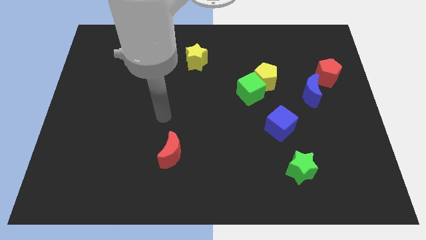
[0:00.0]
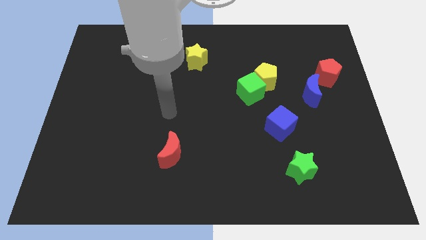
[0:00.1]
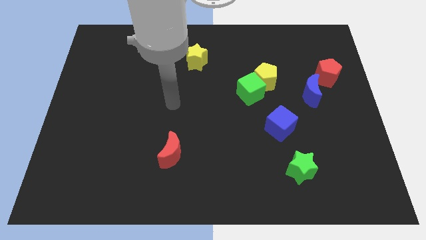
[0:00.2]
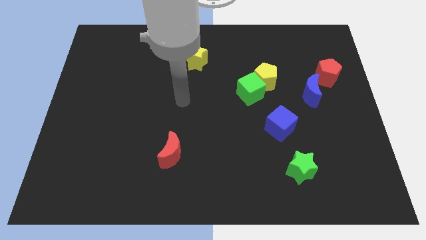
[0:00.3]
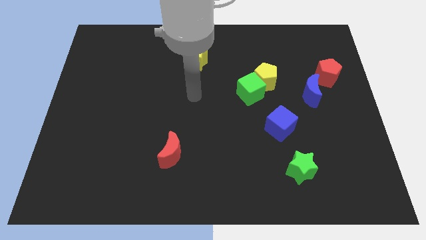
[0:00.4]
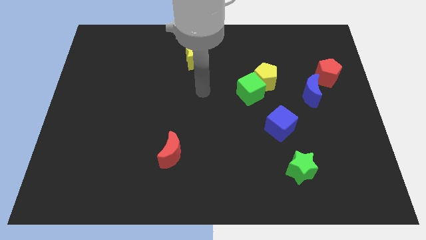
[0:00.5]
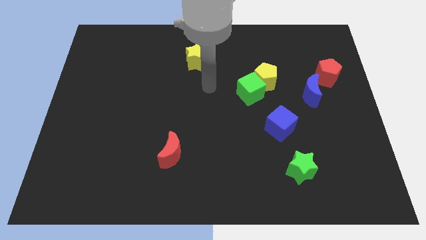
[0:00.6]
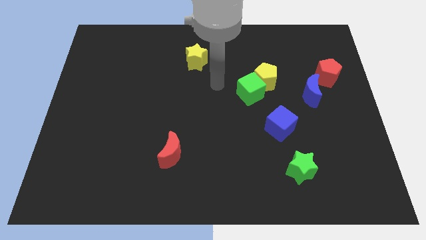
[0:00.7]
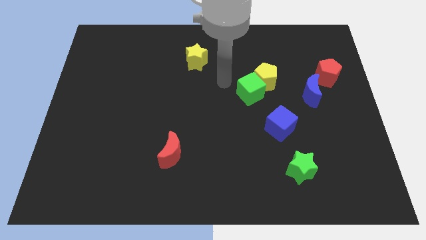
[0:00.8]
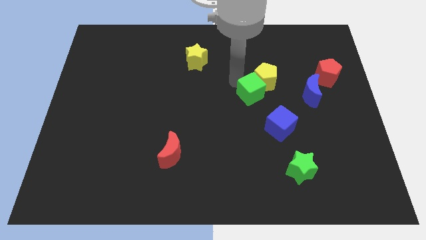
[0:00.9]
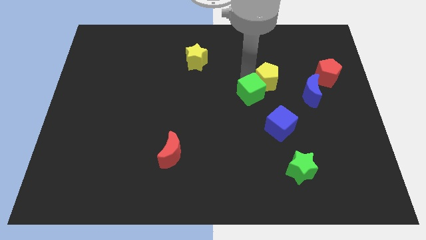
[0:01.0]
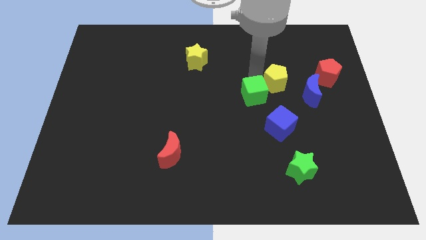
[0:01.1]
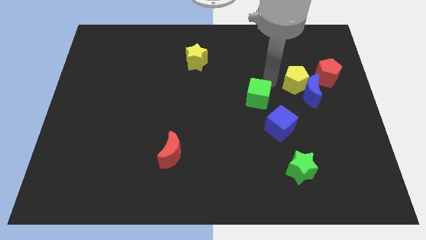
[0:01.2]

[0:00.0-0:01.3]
move the green cube away from the yellow pentagon

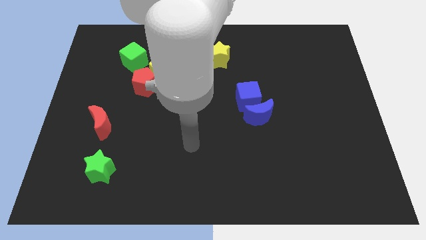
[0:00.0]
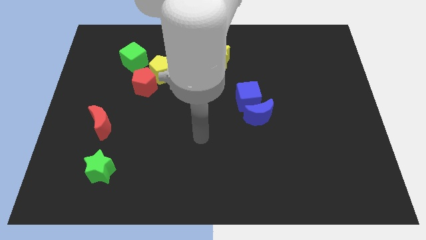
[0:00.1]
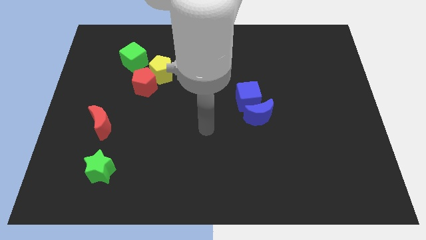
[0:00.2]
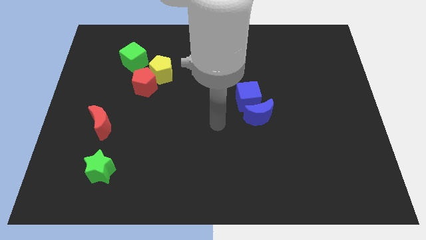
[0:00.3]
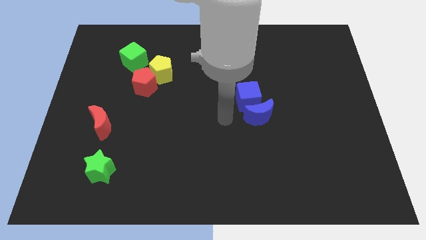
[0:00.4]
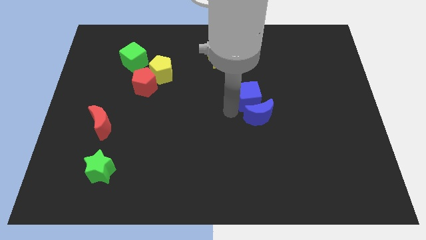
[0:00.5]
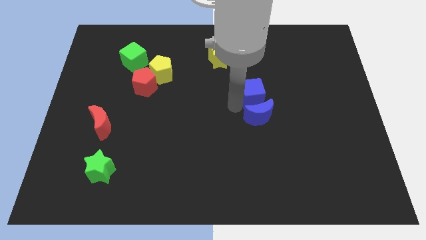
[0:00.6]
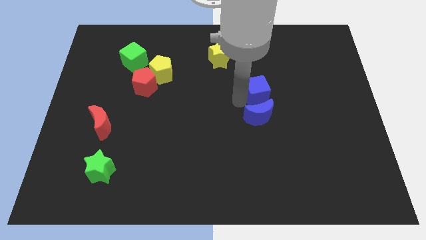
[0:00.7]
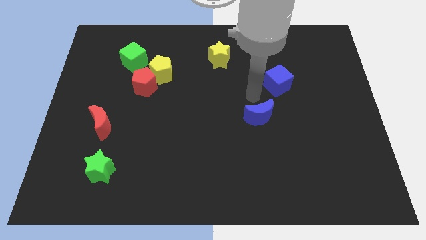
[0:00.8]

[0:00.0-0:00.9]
separate the blue moon from the blue cube

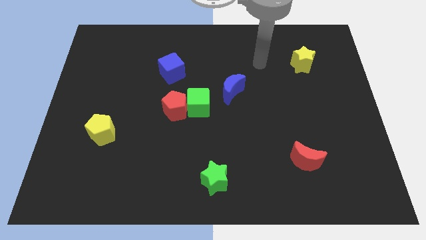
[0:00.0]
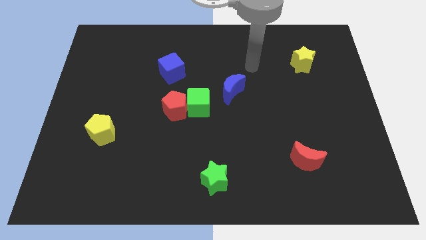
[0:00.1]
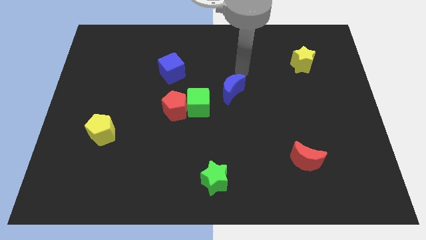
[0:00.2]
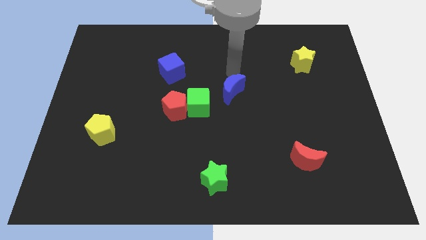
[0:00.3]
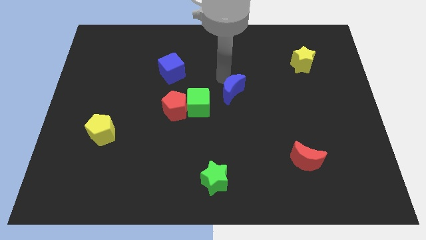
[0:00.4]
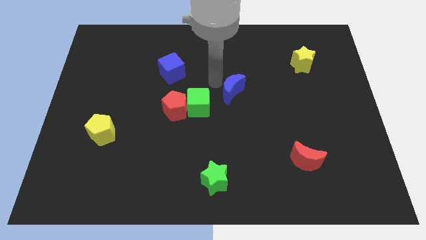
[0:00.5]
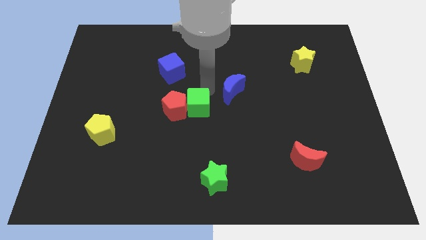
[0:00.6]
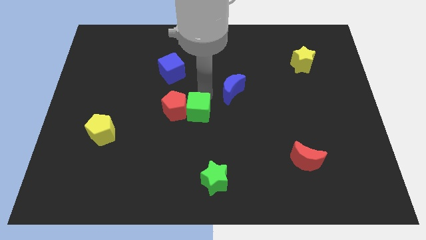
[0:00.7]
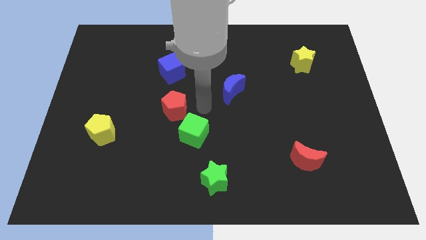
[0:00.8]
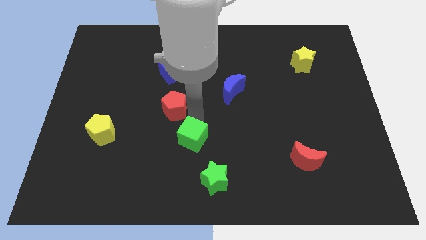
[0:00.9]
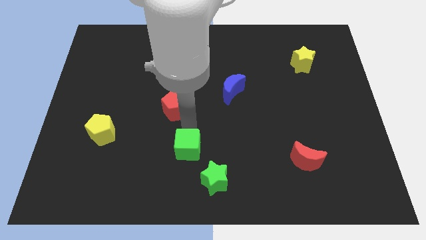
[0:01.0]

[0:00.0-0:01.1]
separate the red pentagon from the green cube

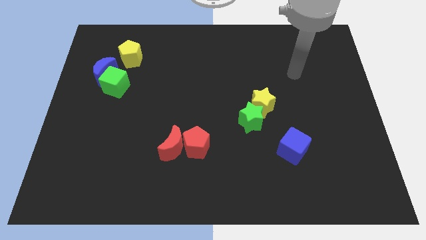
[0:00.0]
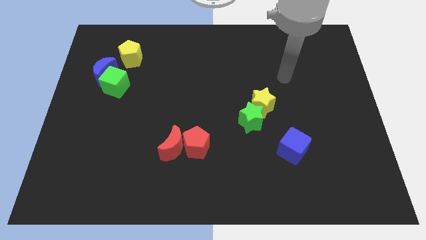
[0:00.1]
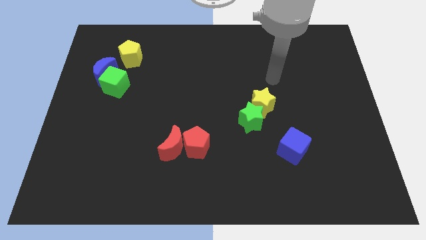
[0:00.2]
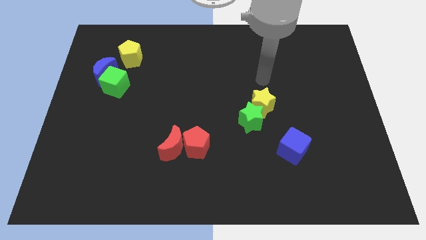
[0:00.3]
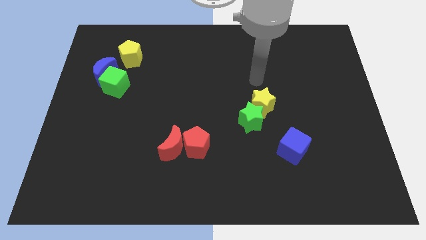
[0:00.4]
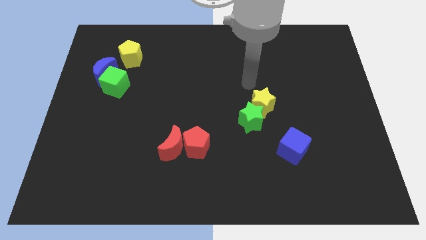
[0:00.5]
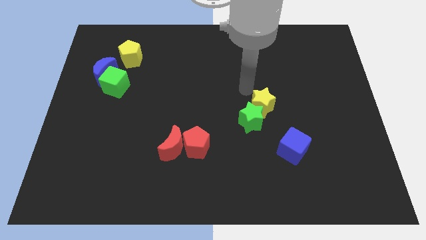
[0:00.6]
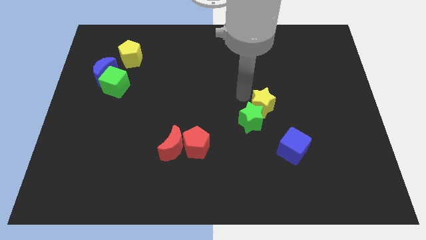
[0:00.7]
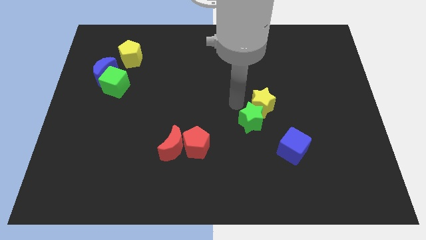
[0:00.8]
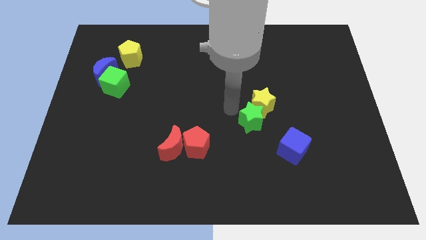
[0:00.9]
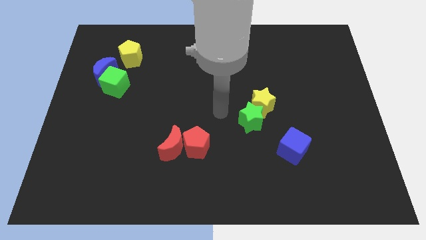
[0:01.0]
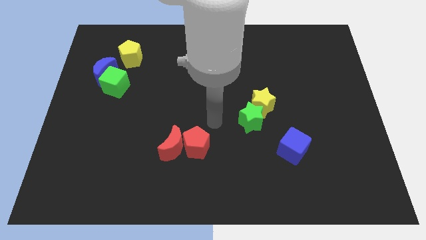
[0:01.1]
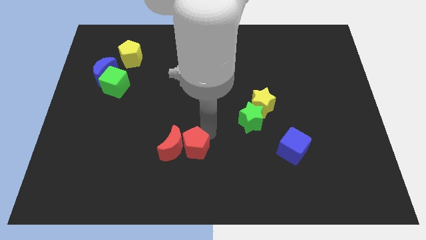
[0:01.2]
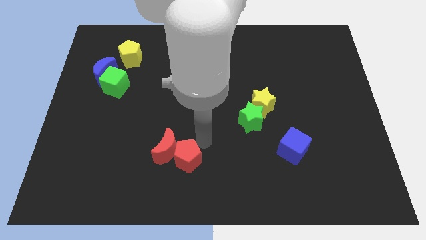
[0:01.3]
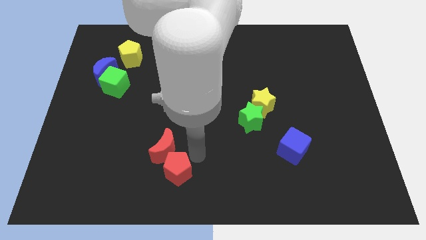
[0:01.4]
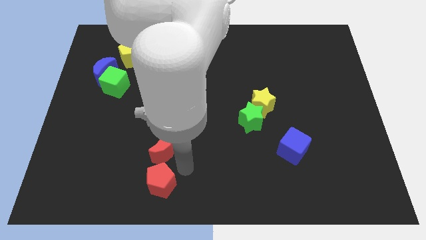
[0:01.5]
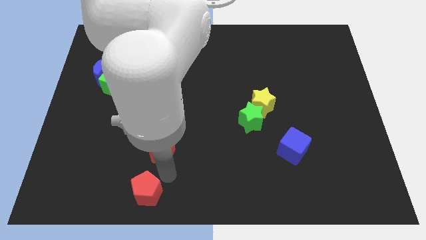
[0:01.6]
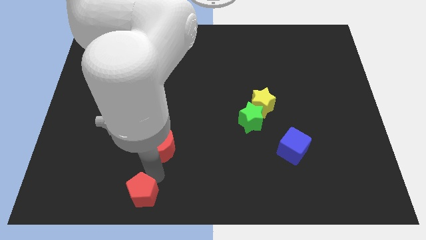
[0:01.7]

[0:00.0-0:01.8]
pull the red moon apart from the red pentagon

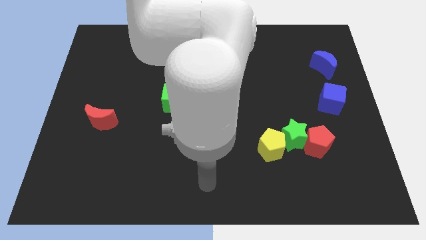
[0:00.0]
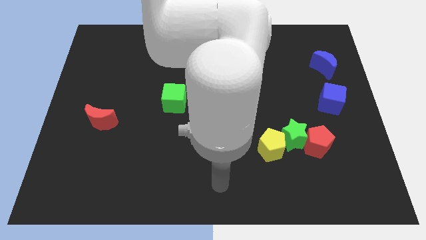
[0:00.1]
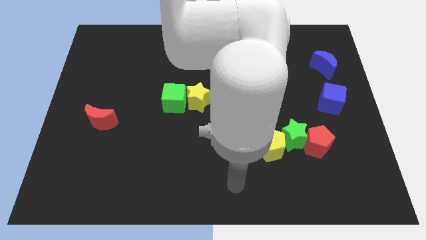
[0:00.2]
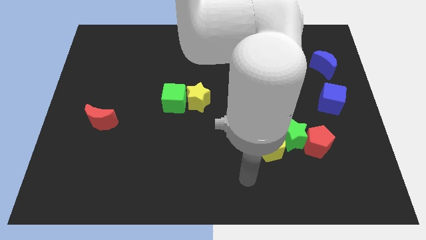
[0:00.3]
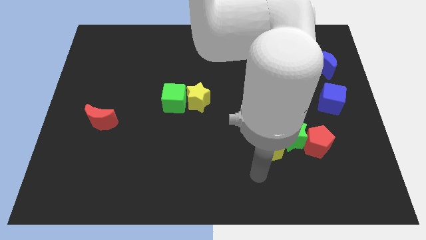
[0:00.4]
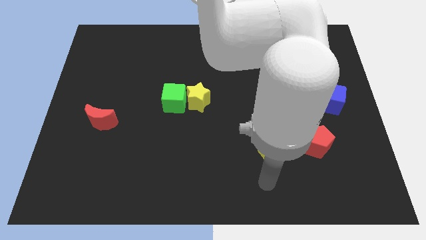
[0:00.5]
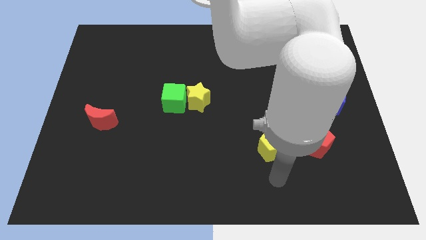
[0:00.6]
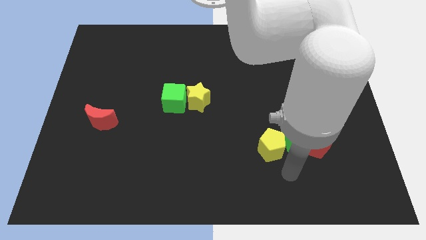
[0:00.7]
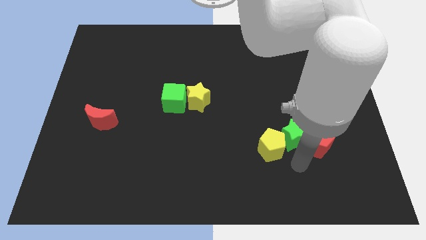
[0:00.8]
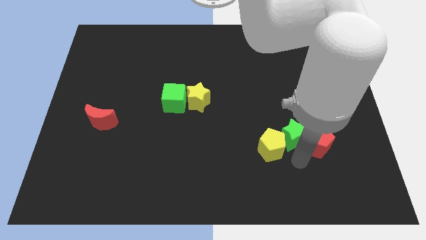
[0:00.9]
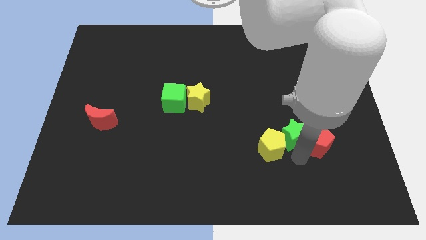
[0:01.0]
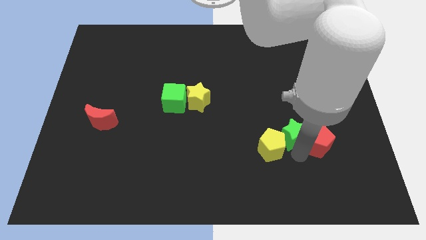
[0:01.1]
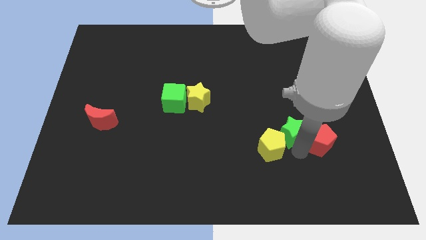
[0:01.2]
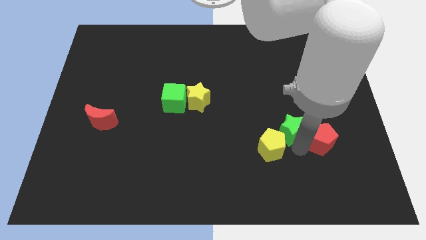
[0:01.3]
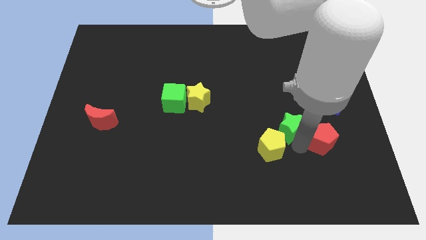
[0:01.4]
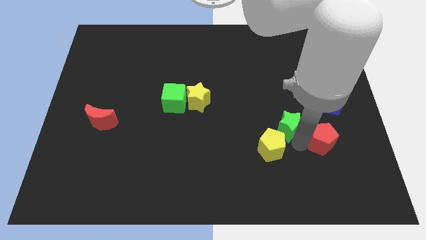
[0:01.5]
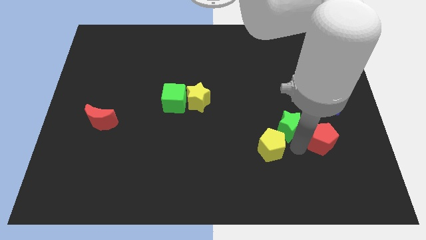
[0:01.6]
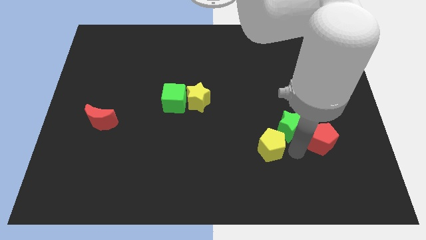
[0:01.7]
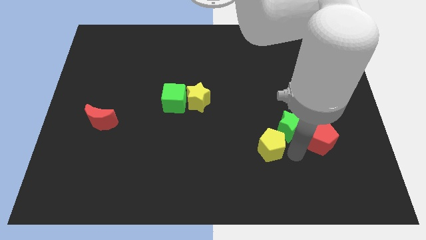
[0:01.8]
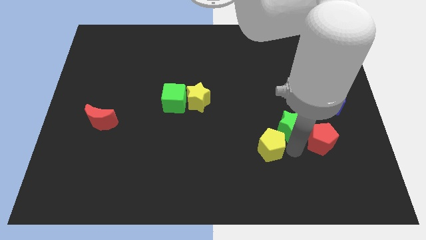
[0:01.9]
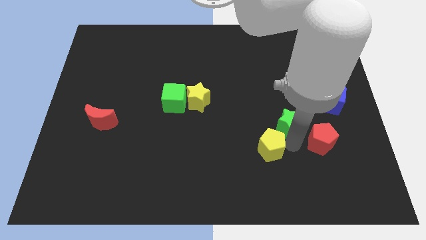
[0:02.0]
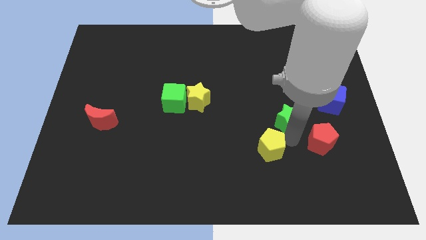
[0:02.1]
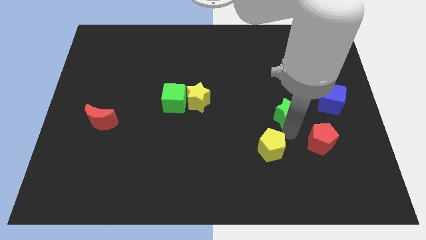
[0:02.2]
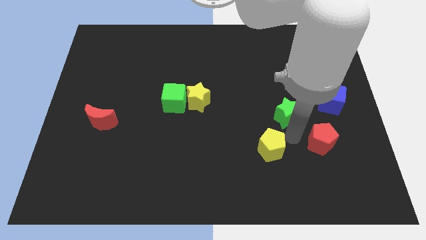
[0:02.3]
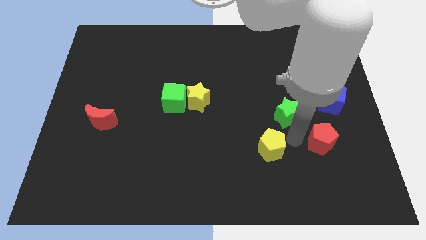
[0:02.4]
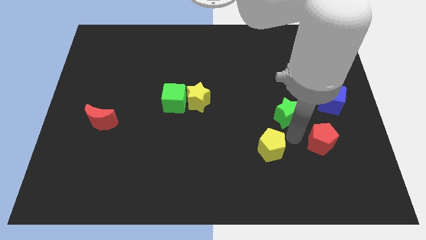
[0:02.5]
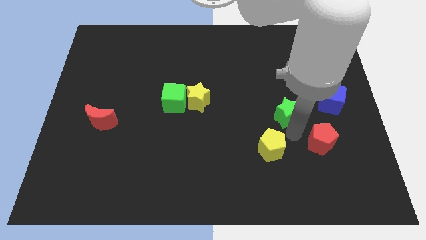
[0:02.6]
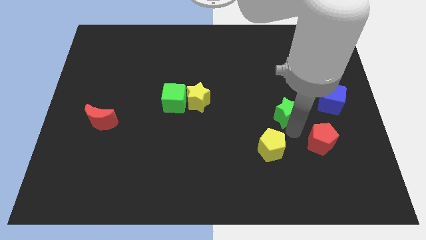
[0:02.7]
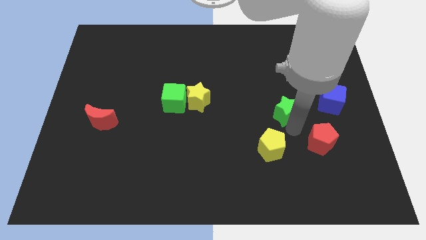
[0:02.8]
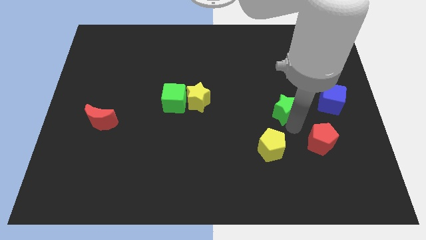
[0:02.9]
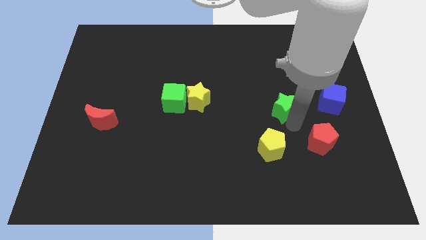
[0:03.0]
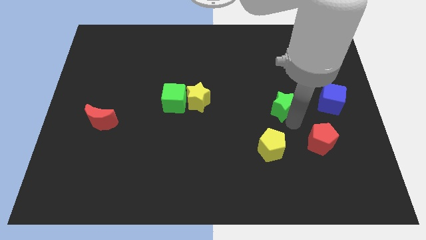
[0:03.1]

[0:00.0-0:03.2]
separate the green star from the yellow pentagon and red pentagon

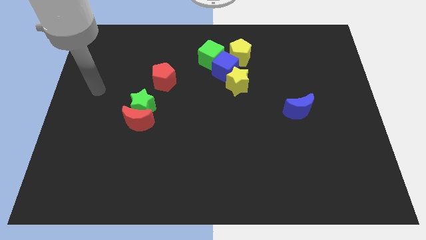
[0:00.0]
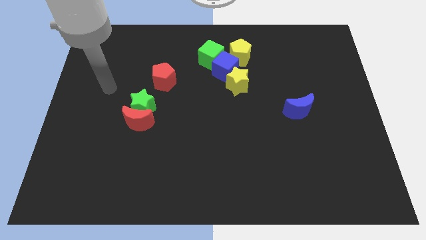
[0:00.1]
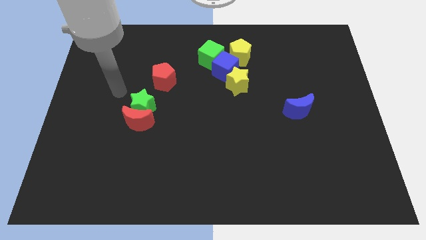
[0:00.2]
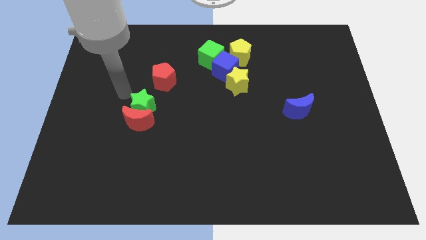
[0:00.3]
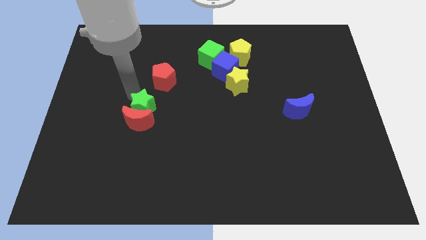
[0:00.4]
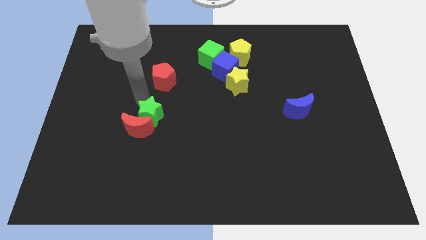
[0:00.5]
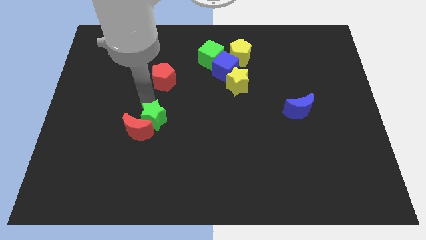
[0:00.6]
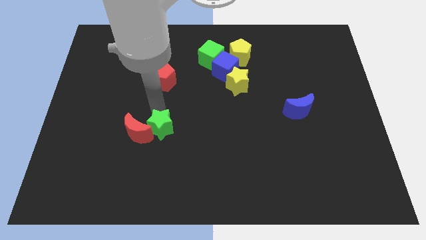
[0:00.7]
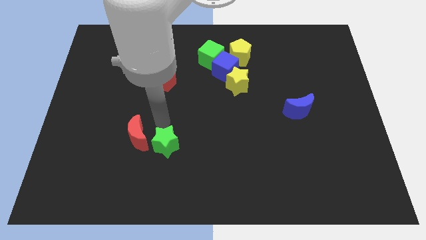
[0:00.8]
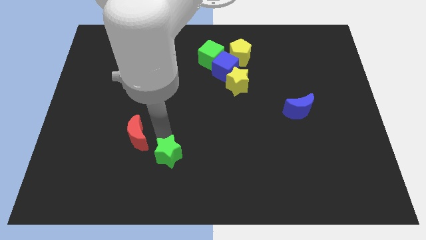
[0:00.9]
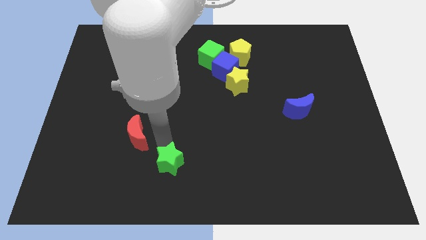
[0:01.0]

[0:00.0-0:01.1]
separate the red moon from the green star
